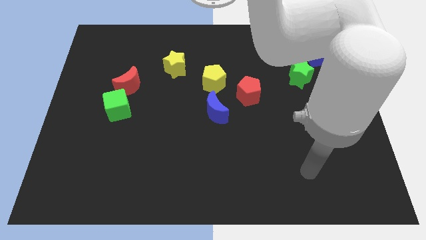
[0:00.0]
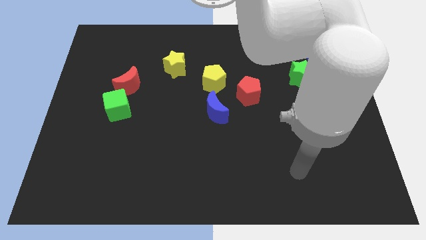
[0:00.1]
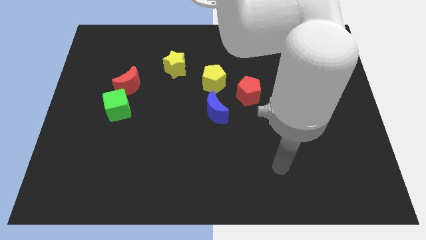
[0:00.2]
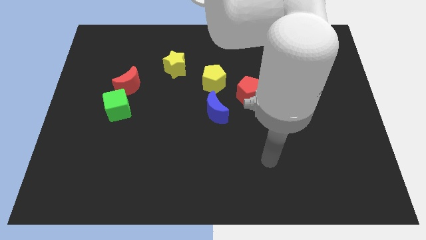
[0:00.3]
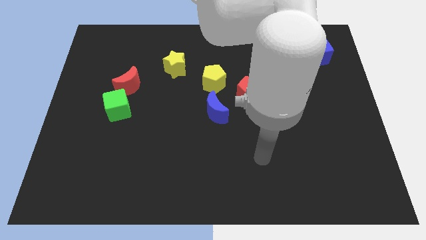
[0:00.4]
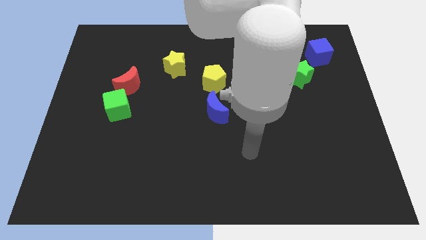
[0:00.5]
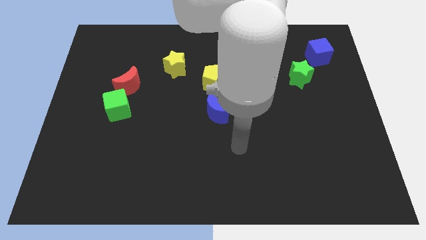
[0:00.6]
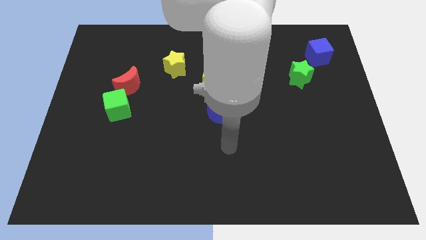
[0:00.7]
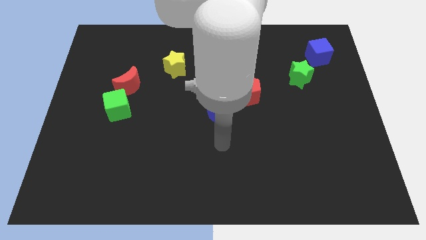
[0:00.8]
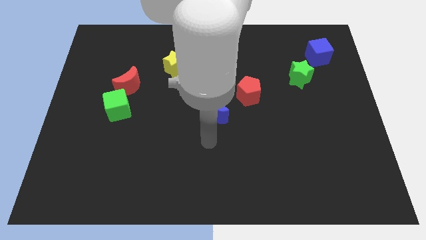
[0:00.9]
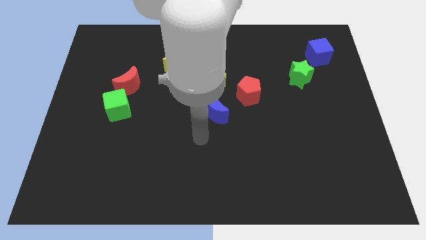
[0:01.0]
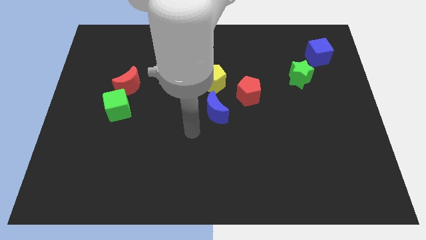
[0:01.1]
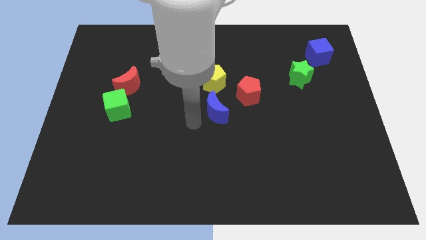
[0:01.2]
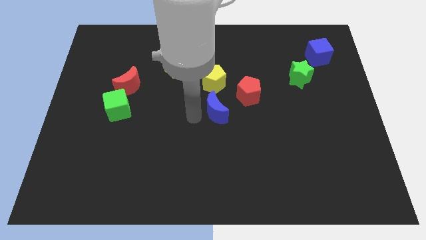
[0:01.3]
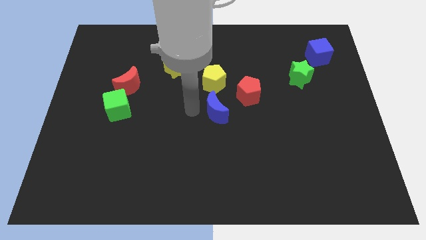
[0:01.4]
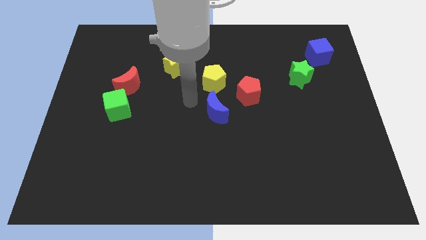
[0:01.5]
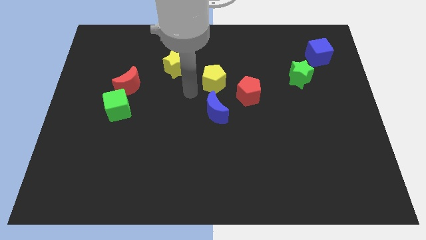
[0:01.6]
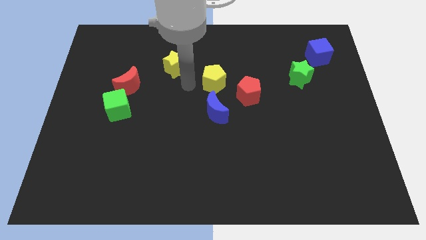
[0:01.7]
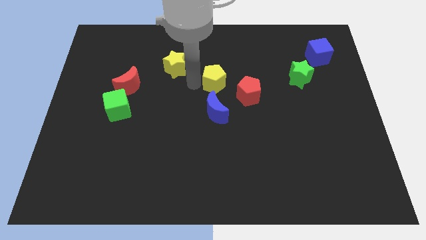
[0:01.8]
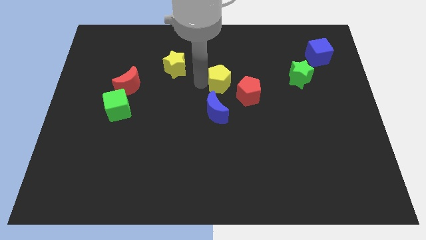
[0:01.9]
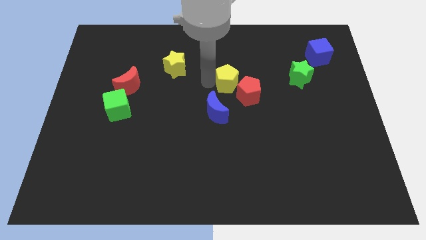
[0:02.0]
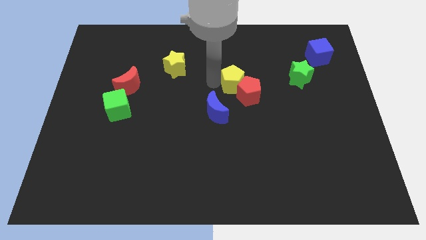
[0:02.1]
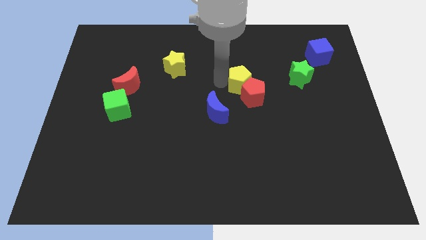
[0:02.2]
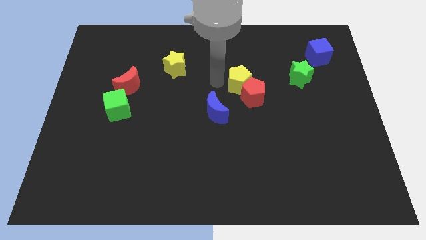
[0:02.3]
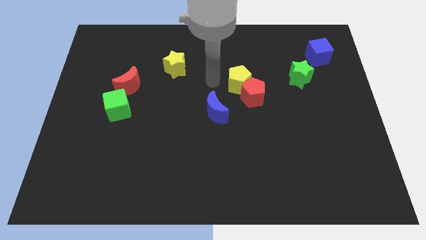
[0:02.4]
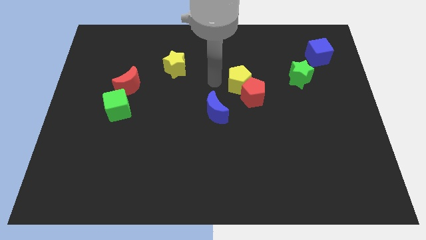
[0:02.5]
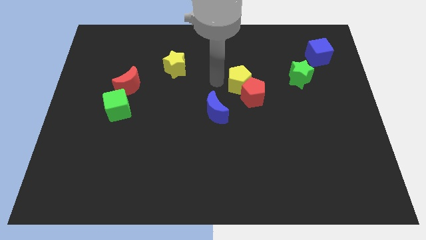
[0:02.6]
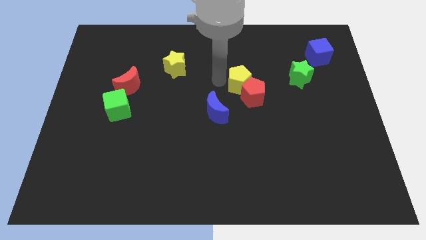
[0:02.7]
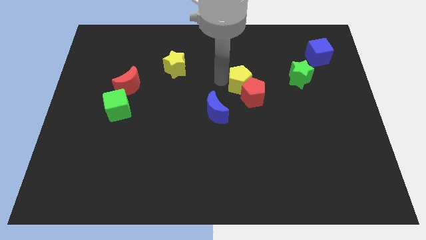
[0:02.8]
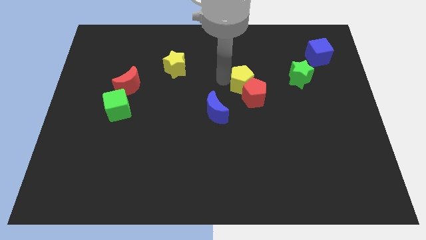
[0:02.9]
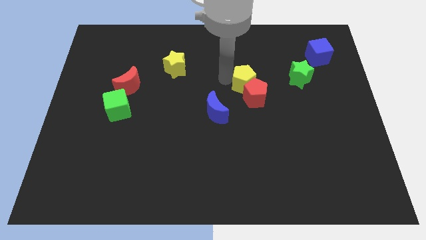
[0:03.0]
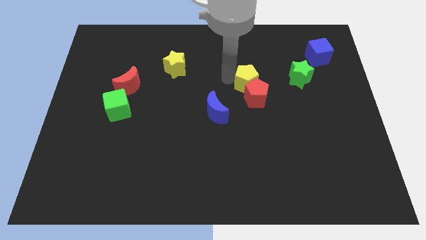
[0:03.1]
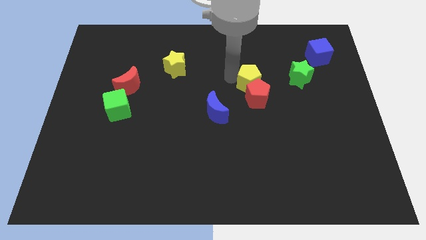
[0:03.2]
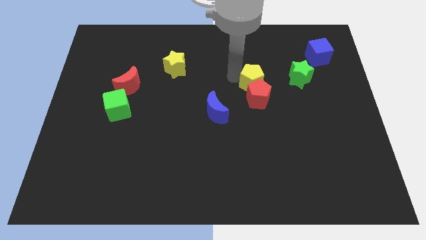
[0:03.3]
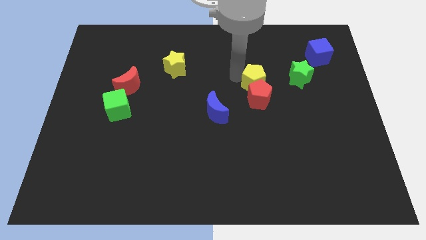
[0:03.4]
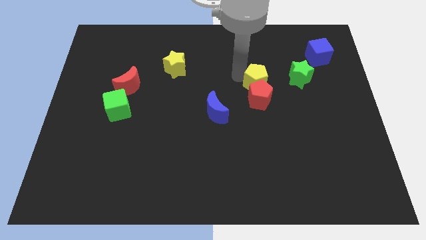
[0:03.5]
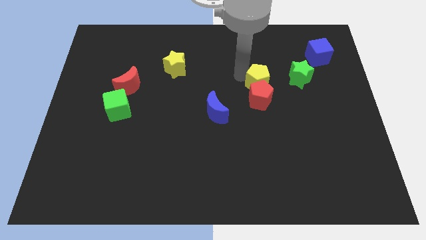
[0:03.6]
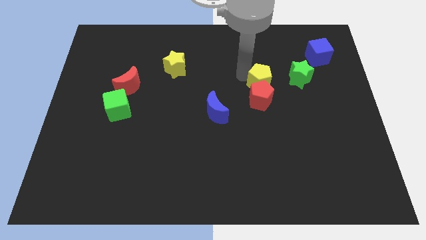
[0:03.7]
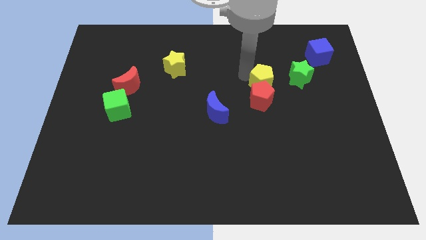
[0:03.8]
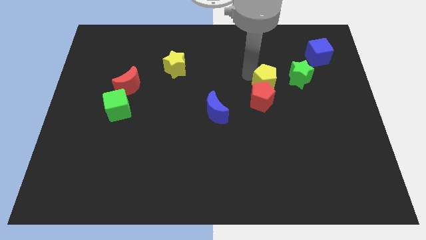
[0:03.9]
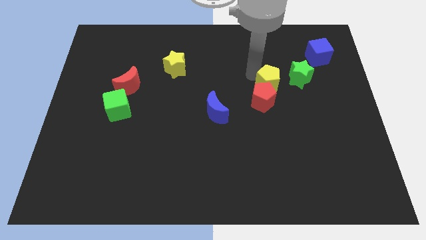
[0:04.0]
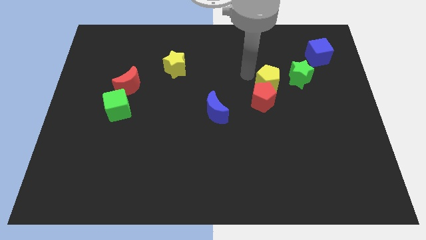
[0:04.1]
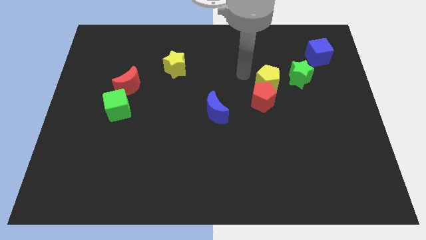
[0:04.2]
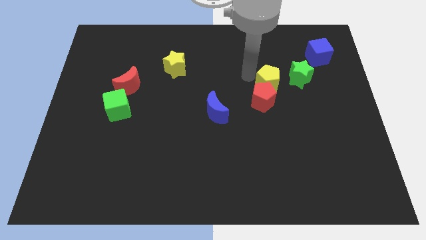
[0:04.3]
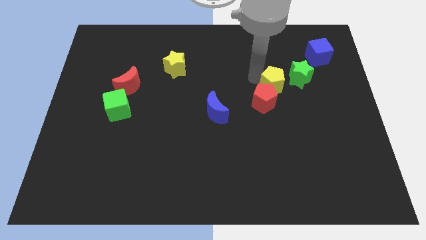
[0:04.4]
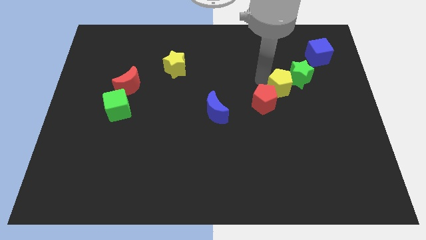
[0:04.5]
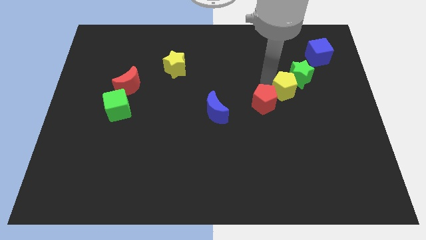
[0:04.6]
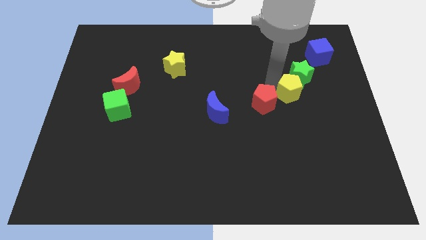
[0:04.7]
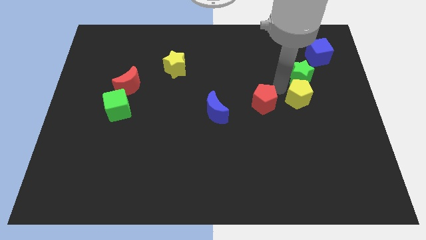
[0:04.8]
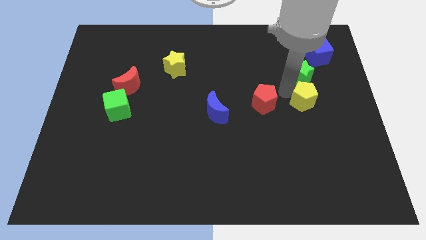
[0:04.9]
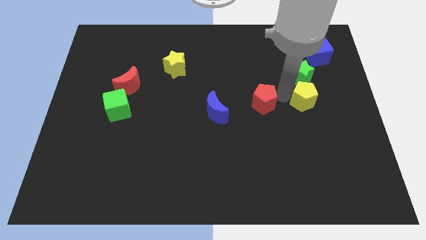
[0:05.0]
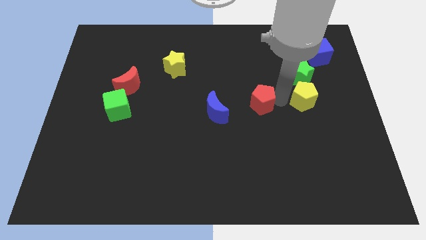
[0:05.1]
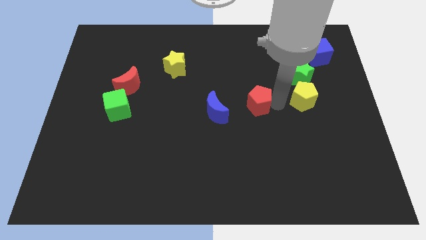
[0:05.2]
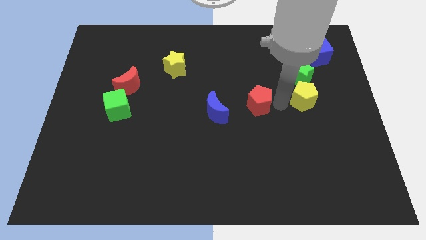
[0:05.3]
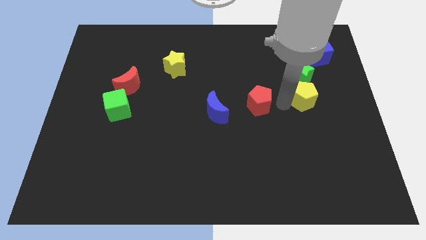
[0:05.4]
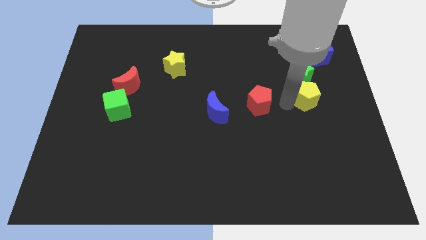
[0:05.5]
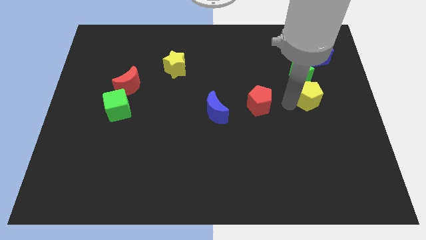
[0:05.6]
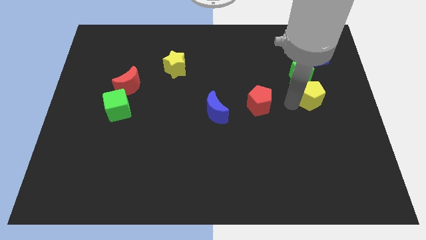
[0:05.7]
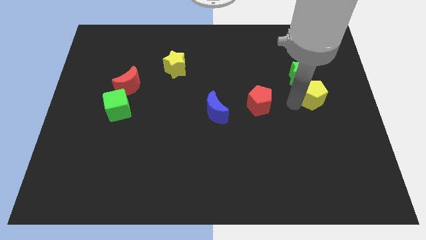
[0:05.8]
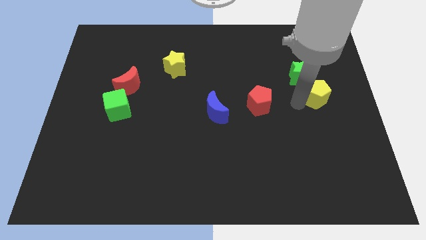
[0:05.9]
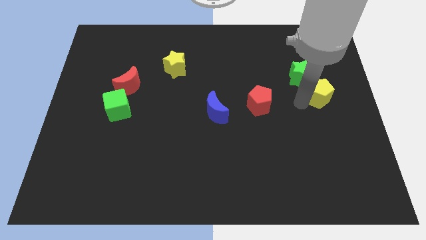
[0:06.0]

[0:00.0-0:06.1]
slide the yellow pentagon to the right side
